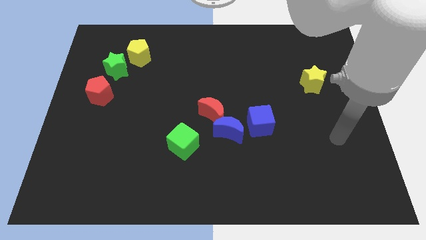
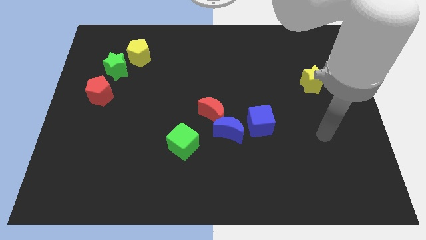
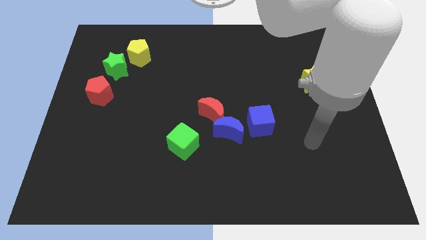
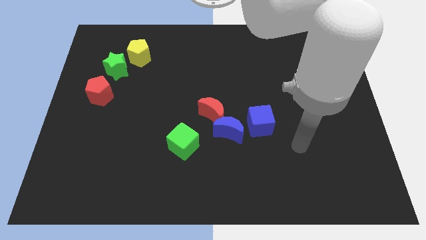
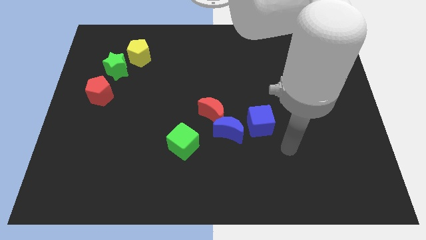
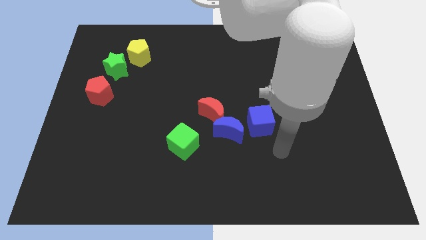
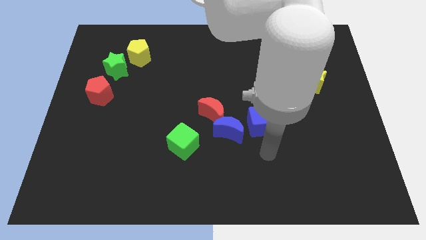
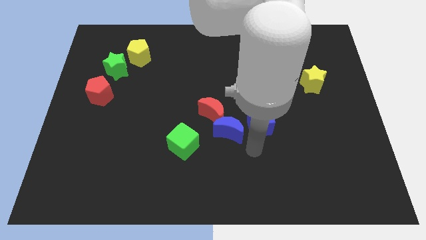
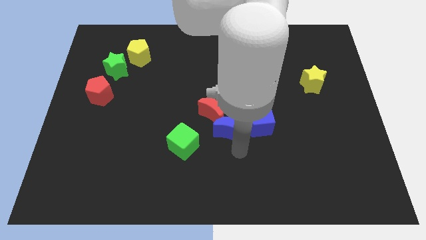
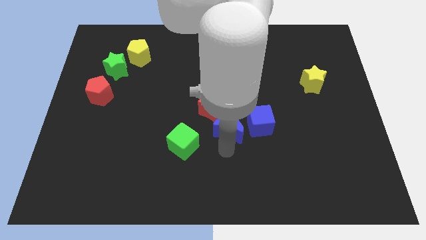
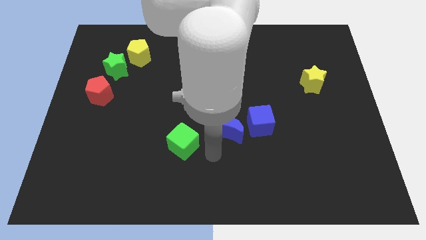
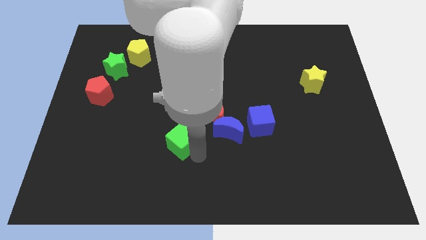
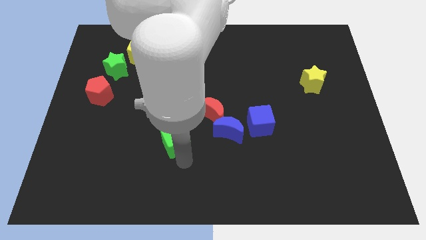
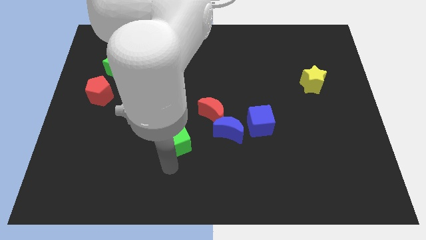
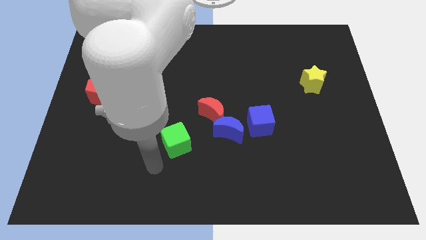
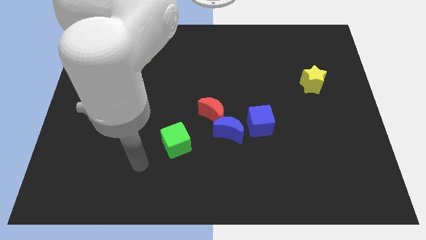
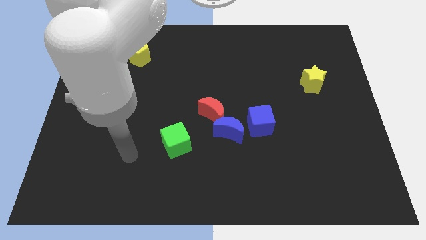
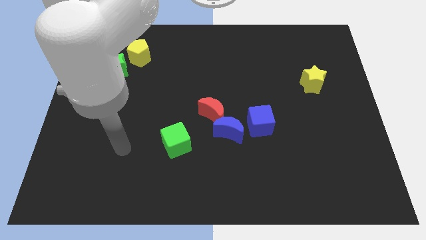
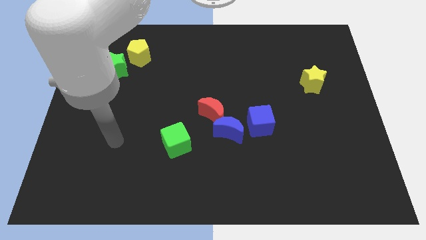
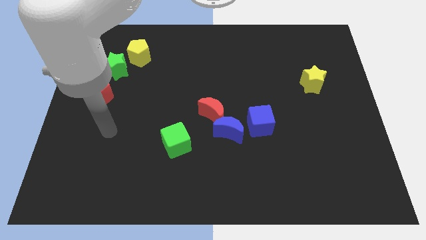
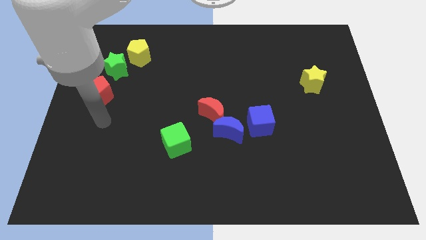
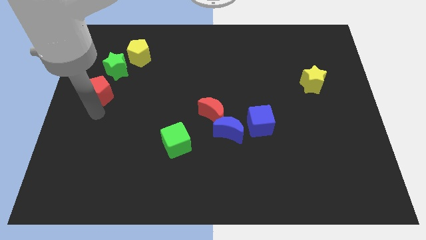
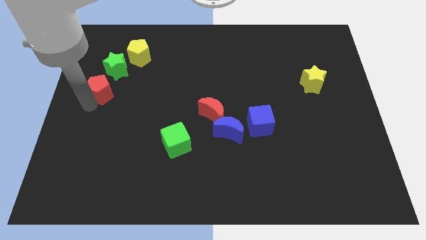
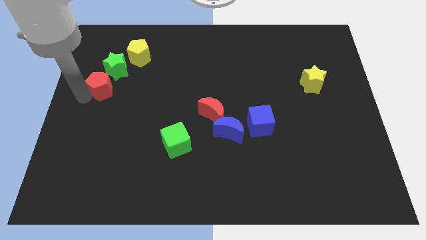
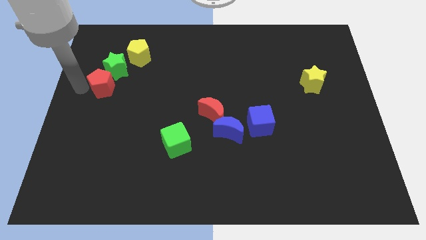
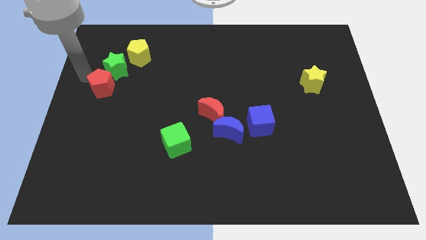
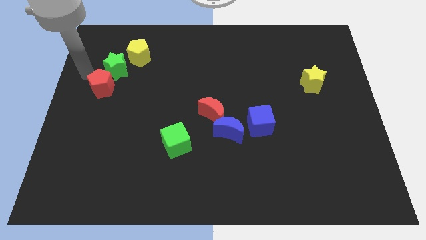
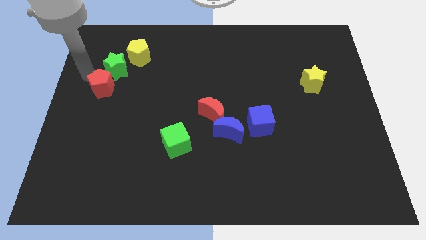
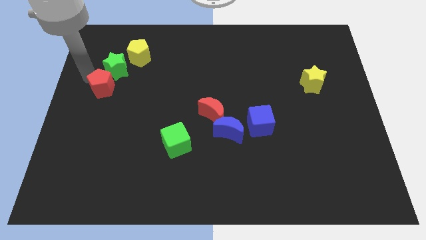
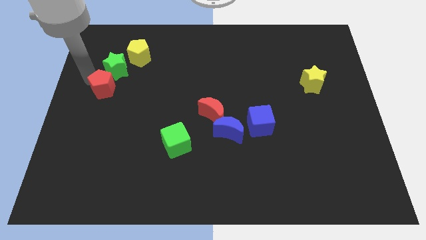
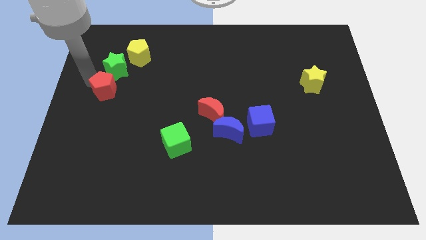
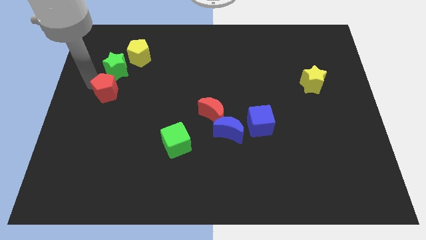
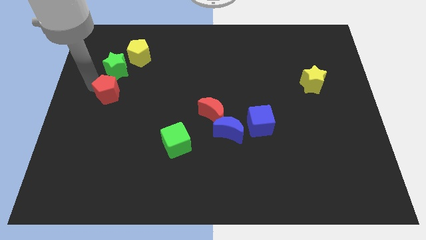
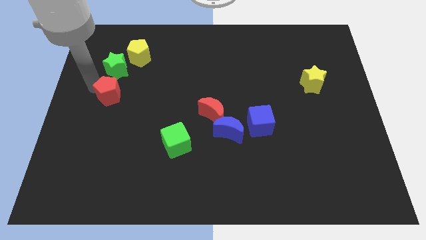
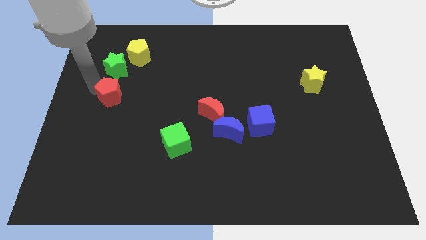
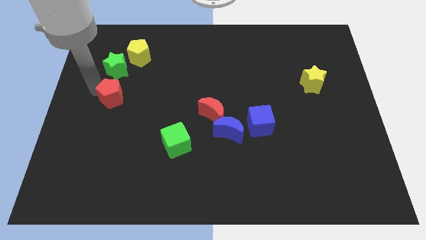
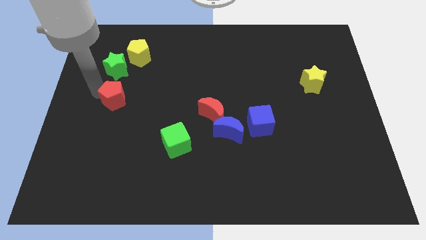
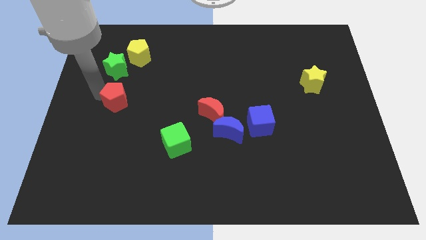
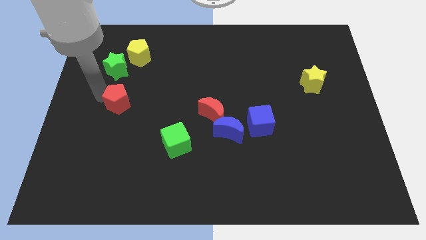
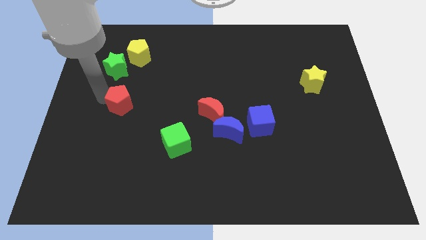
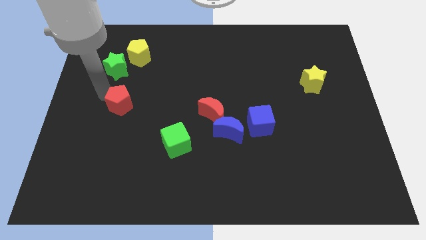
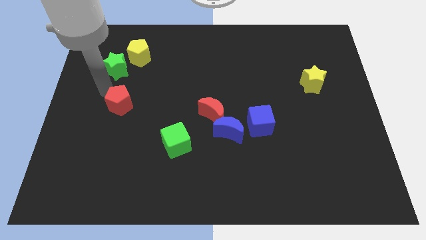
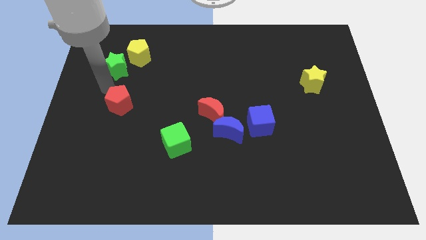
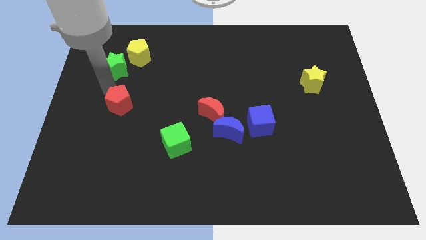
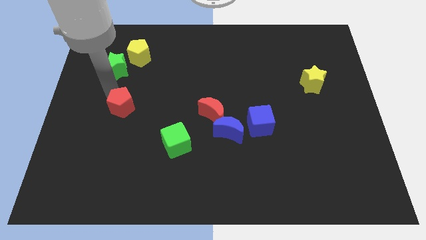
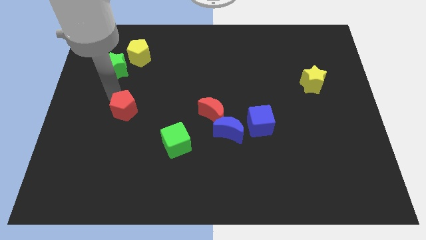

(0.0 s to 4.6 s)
move the red pentagon diagonally down and to the right a bit

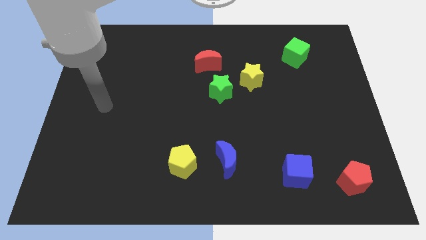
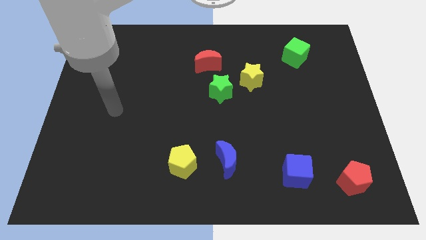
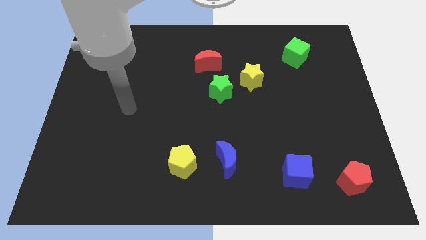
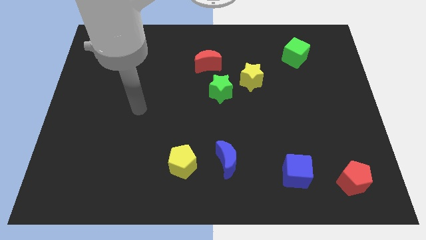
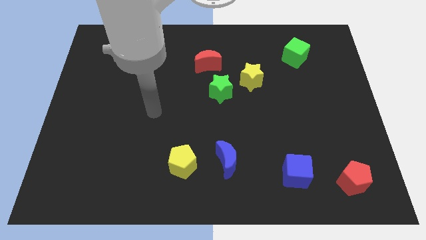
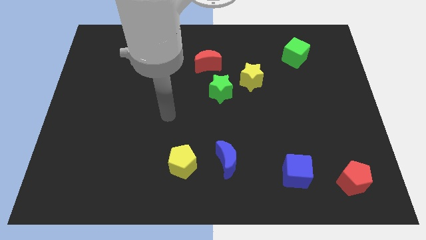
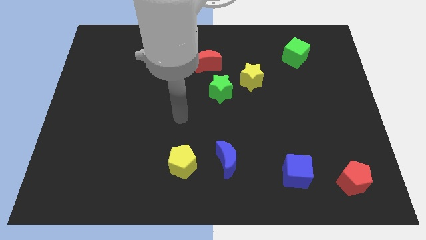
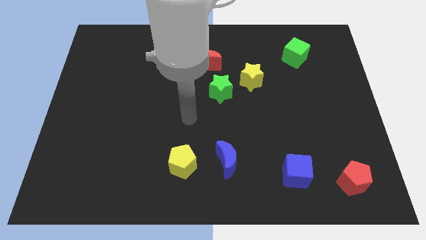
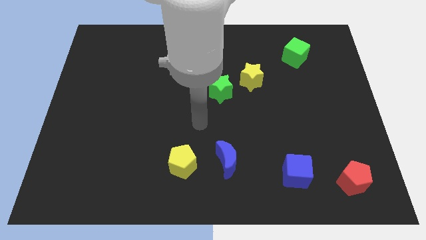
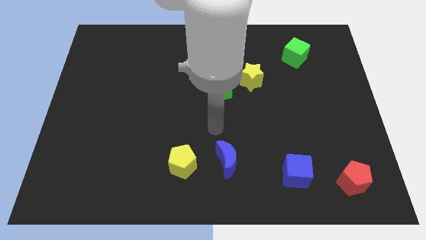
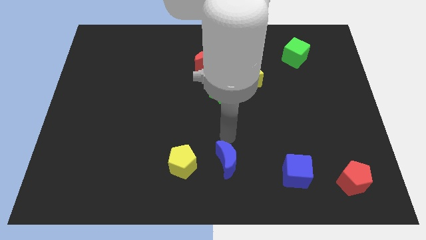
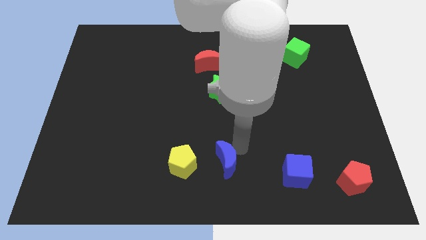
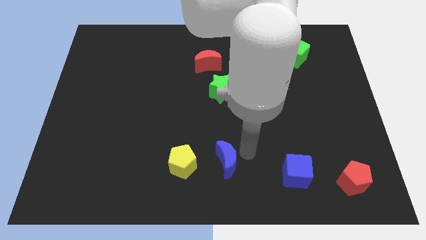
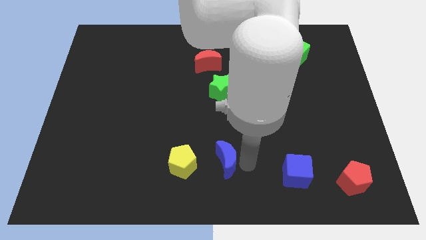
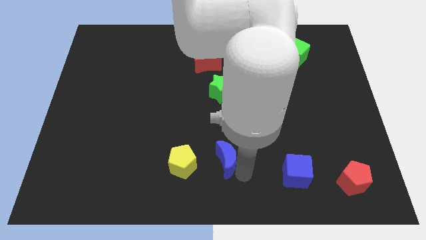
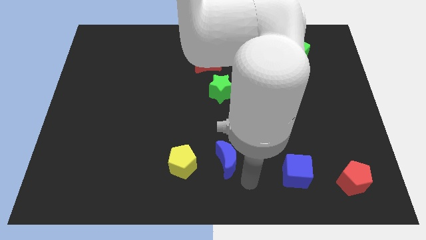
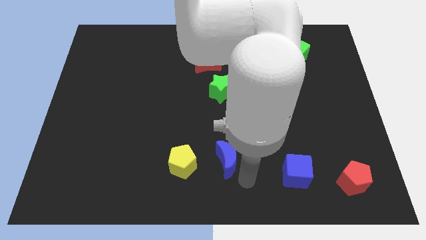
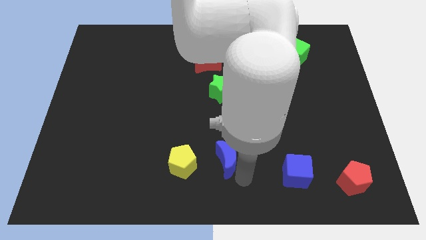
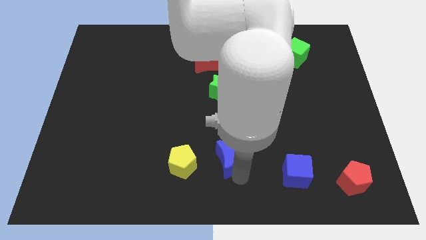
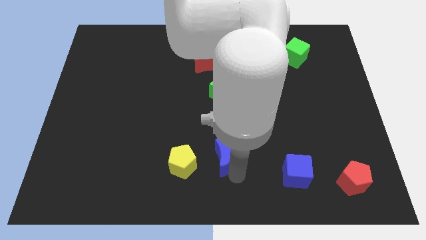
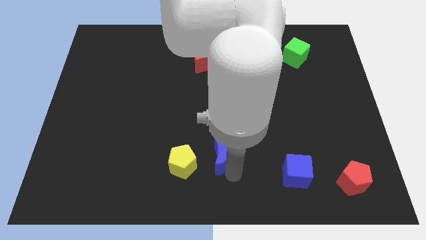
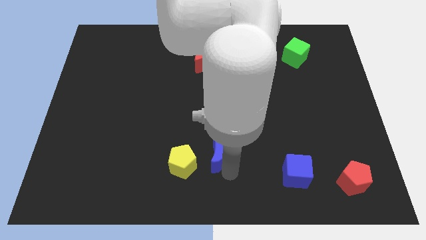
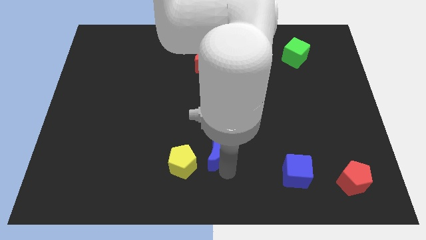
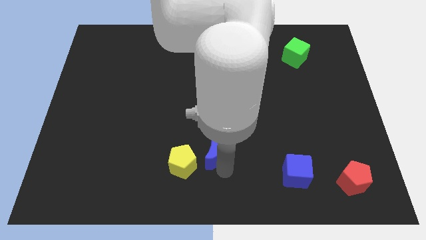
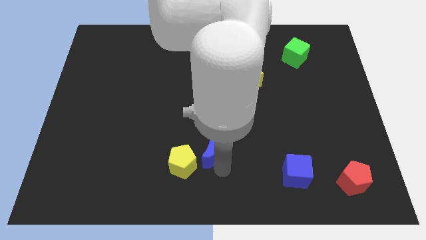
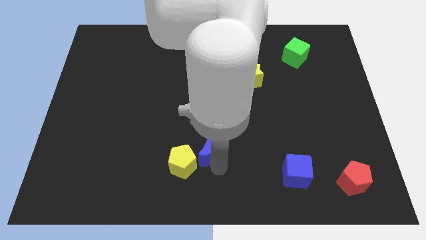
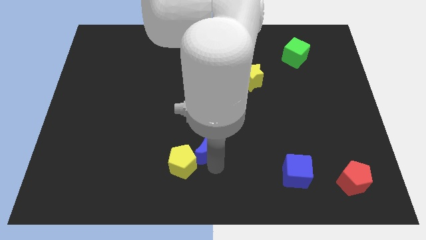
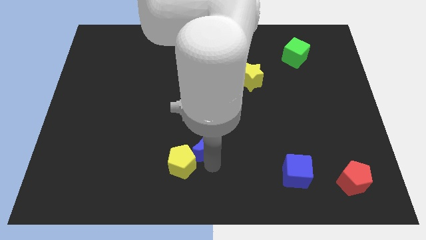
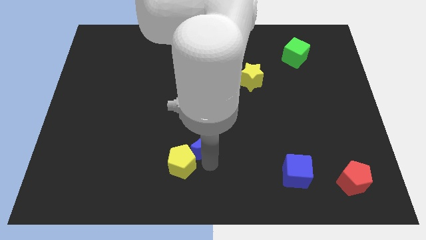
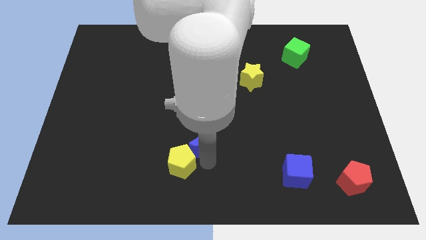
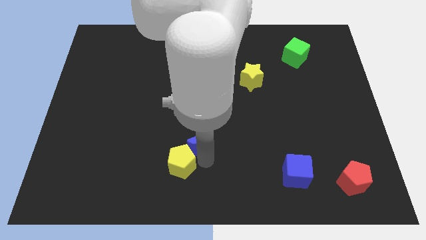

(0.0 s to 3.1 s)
move the blue moon upwards and left a little bit

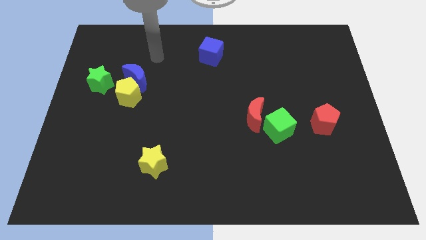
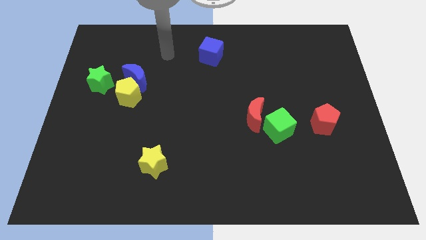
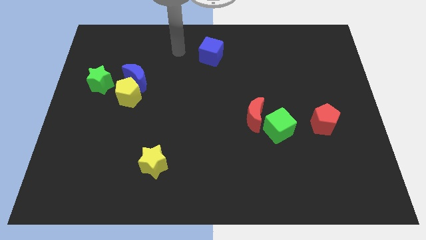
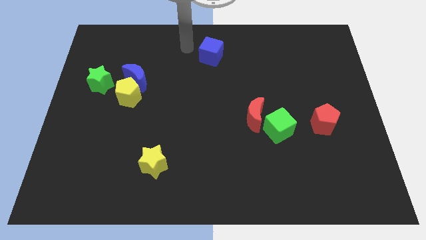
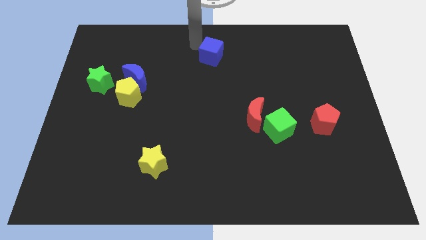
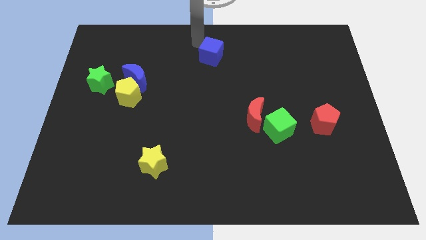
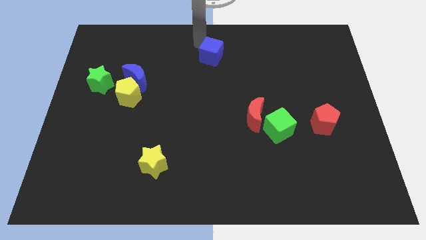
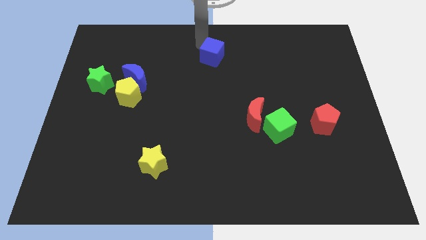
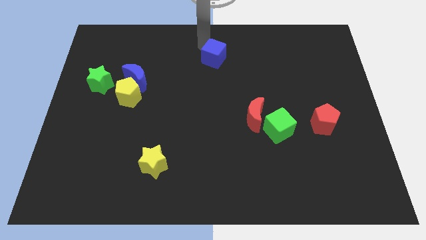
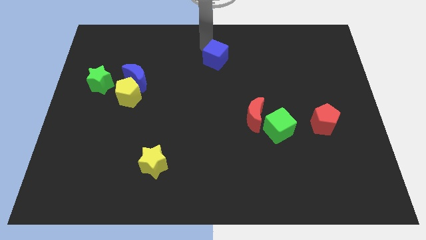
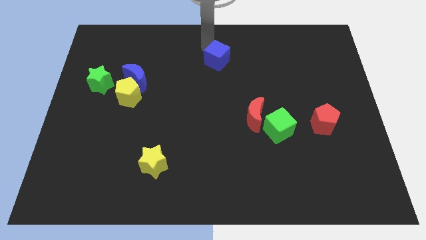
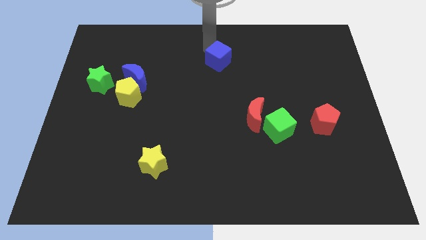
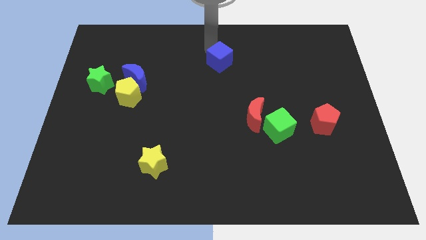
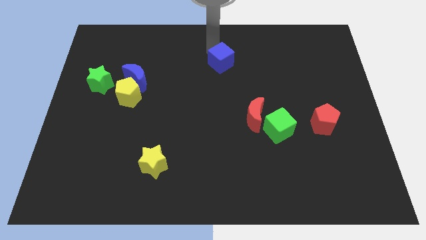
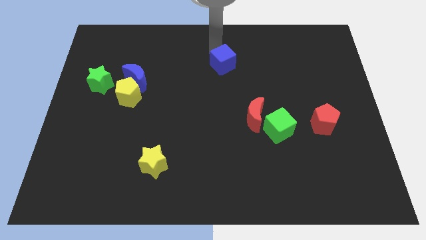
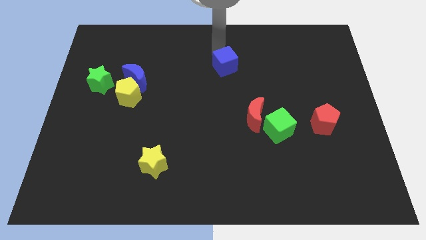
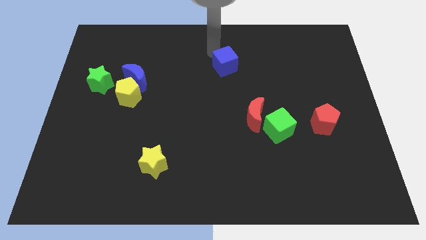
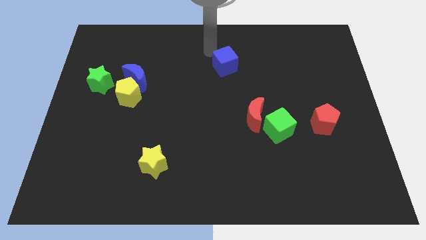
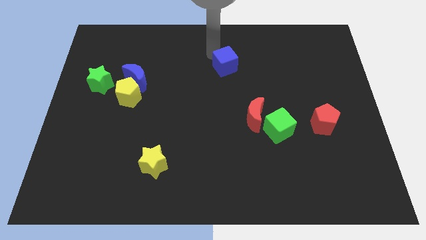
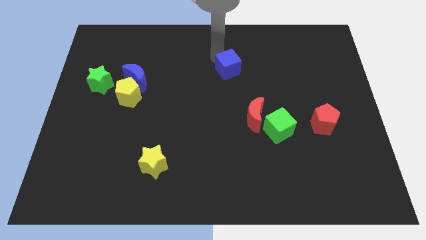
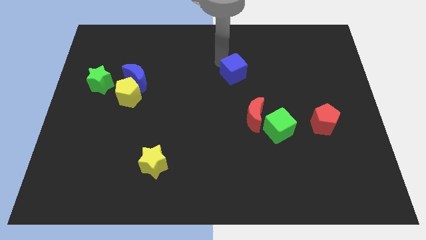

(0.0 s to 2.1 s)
slightly push the blue cube down and to the right
